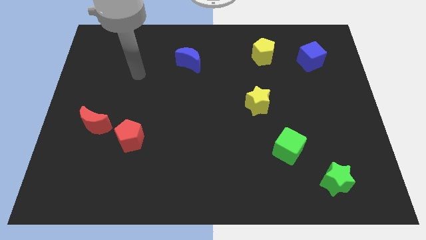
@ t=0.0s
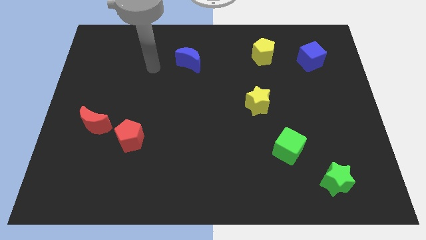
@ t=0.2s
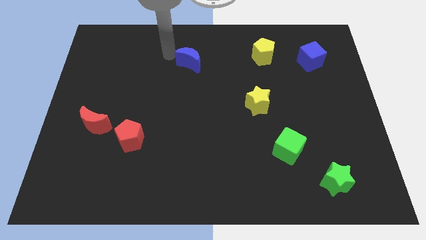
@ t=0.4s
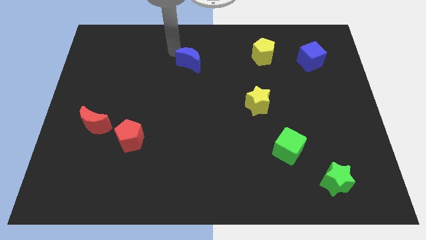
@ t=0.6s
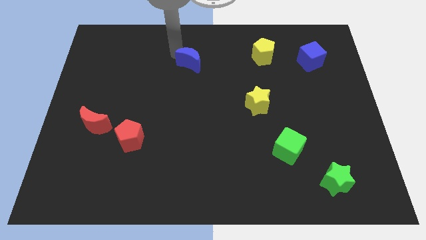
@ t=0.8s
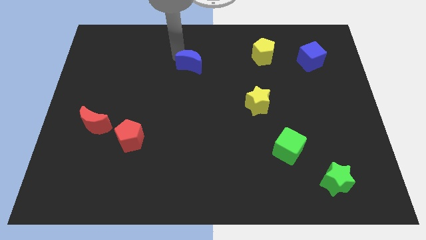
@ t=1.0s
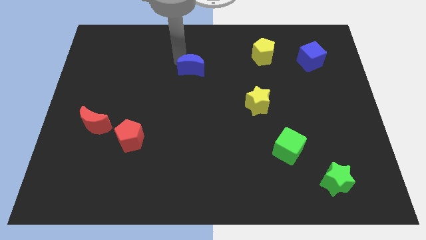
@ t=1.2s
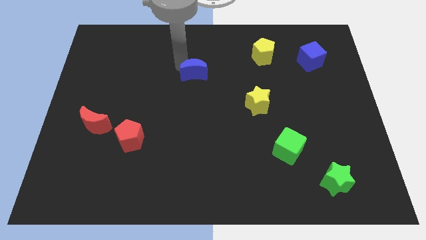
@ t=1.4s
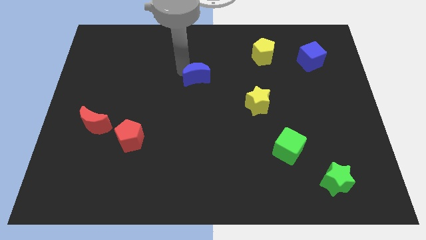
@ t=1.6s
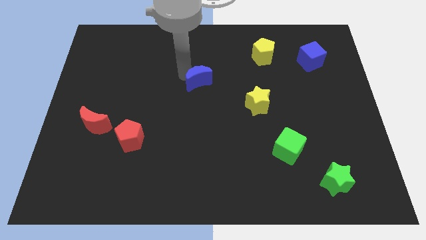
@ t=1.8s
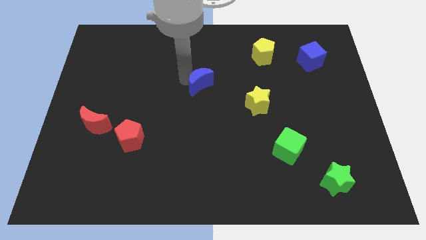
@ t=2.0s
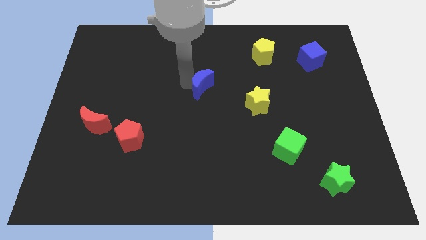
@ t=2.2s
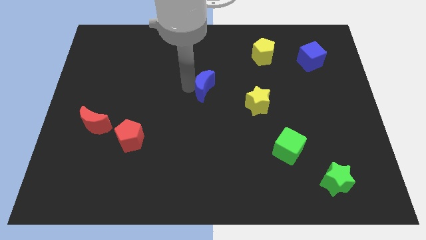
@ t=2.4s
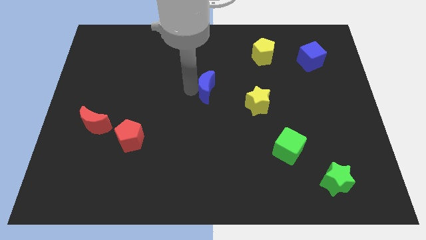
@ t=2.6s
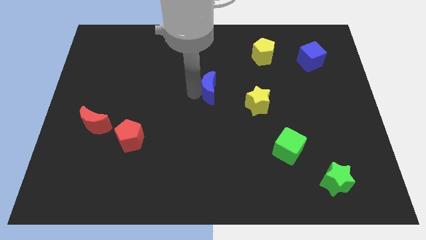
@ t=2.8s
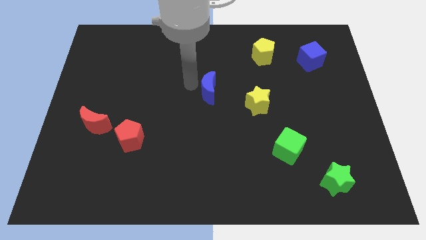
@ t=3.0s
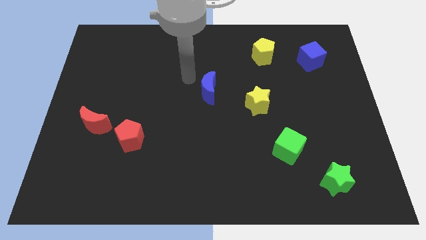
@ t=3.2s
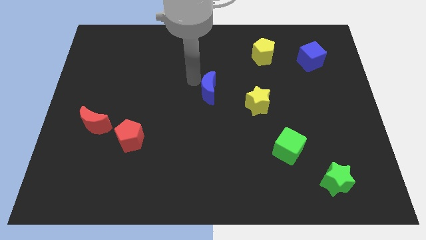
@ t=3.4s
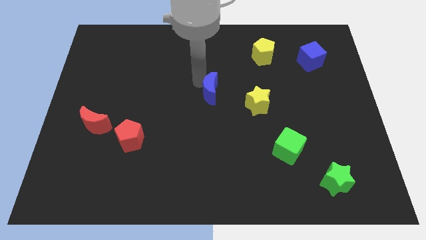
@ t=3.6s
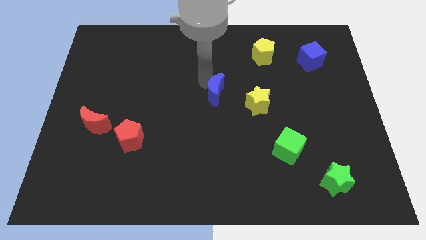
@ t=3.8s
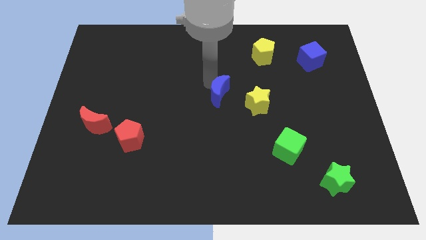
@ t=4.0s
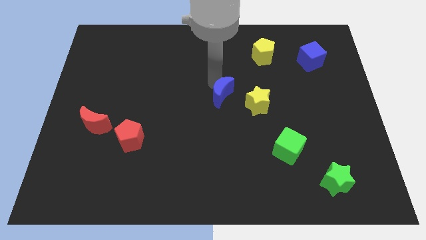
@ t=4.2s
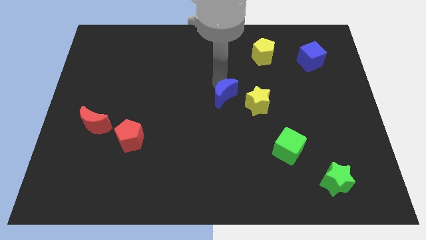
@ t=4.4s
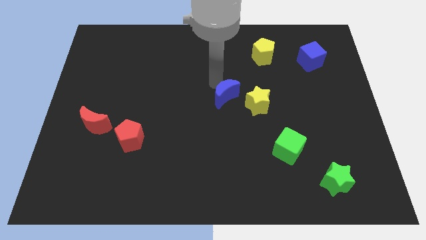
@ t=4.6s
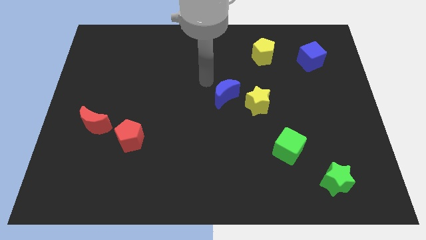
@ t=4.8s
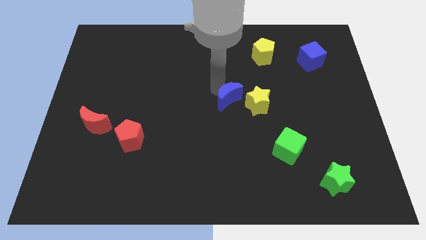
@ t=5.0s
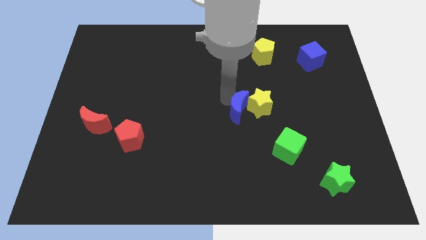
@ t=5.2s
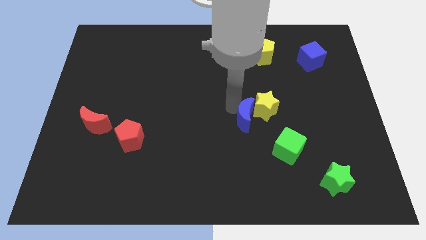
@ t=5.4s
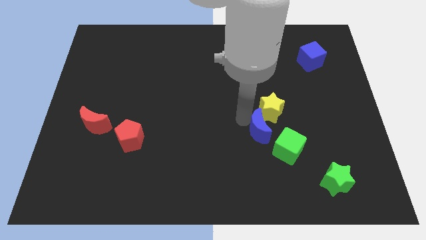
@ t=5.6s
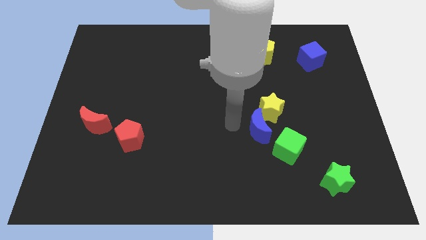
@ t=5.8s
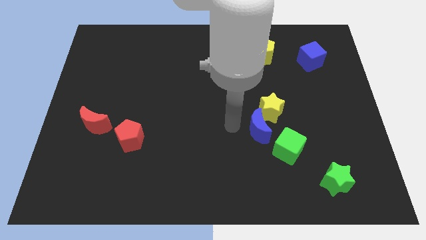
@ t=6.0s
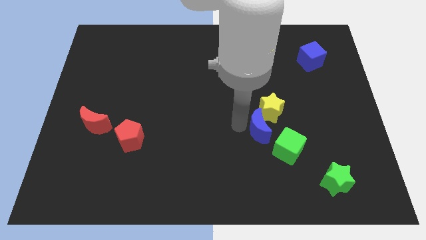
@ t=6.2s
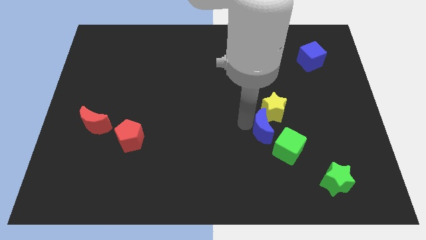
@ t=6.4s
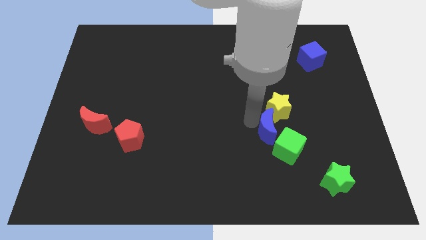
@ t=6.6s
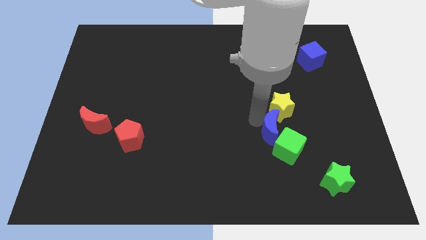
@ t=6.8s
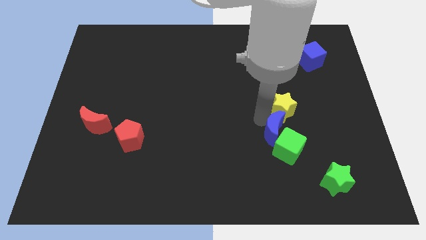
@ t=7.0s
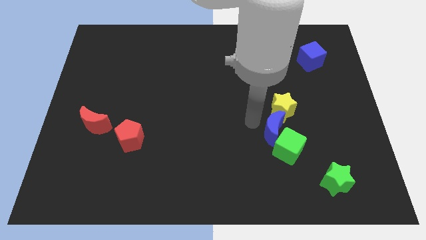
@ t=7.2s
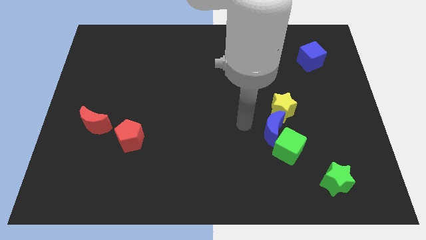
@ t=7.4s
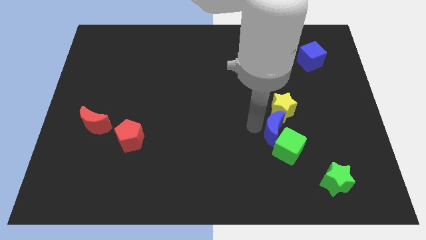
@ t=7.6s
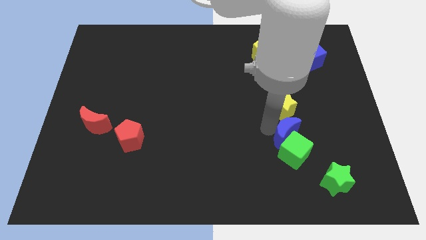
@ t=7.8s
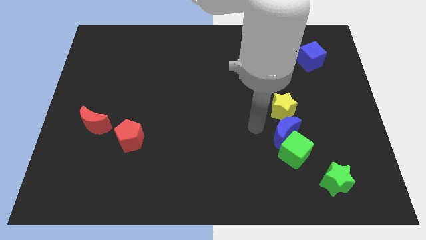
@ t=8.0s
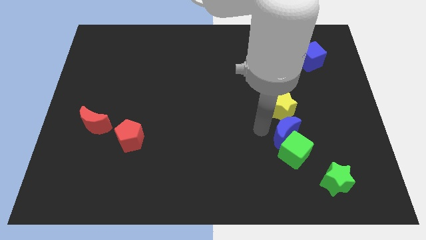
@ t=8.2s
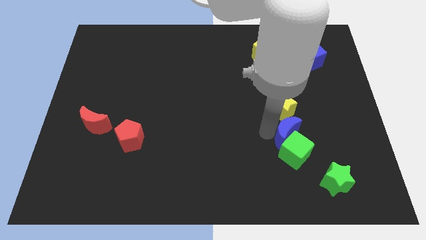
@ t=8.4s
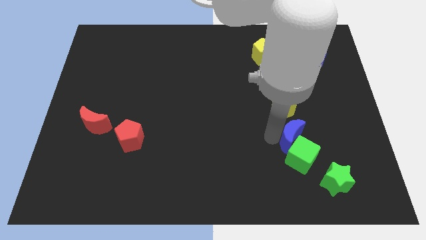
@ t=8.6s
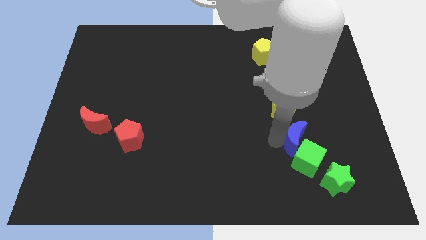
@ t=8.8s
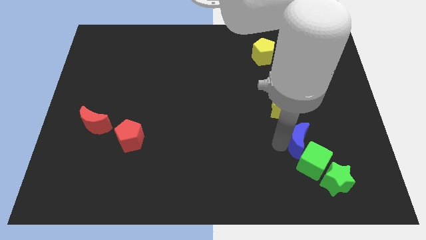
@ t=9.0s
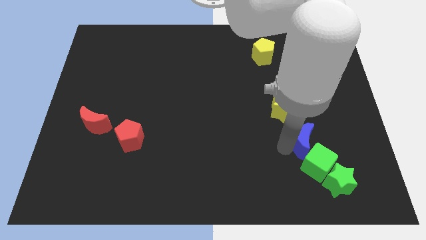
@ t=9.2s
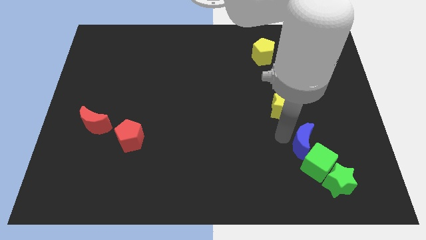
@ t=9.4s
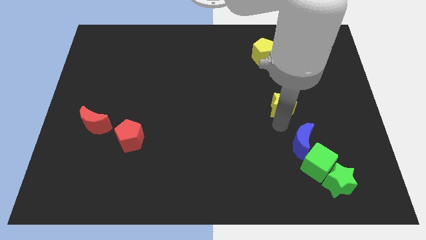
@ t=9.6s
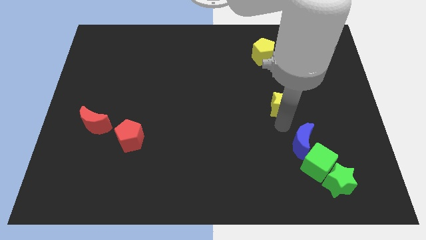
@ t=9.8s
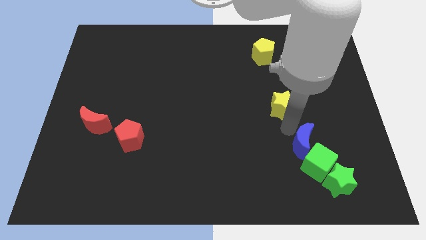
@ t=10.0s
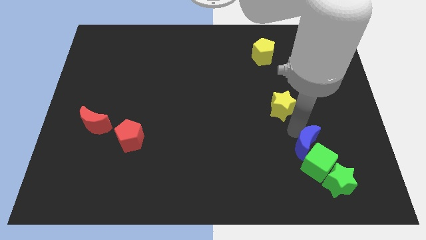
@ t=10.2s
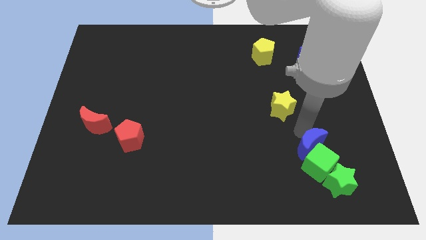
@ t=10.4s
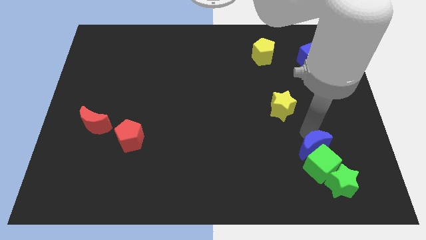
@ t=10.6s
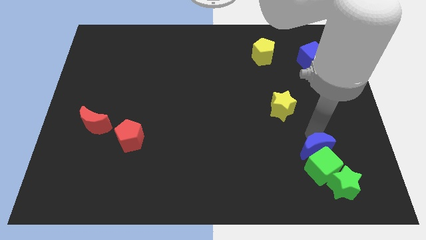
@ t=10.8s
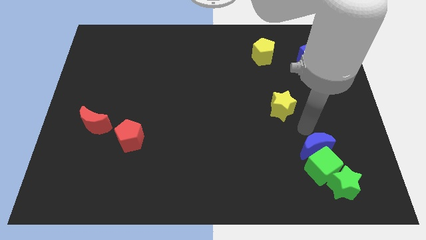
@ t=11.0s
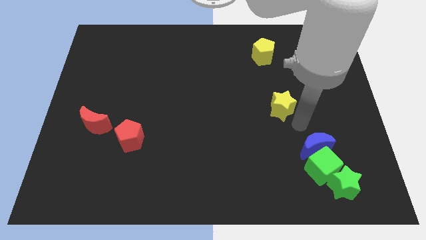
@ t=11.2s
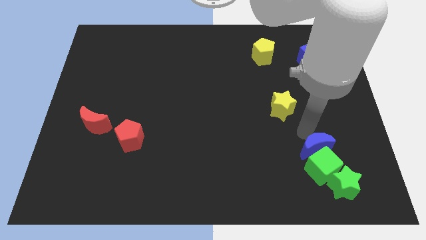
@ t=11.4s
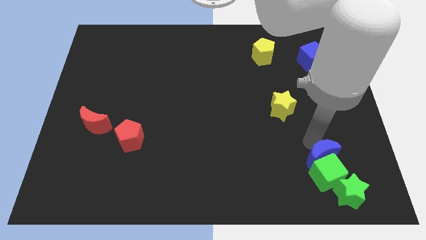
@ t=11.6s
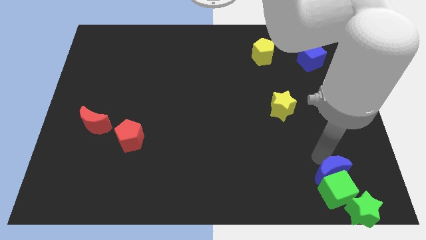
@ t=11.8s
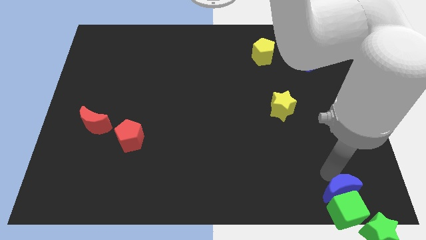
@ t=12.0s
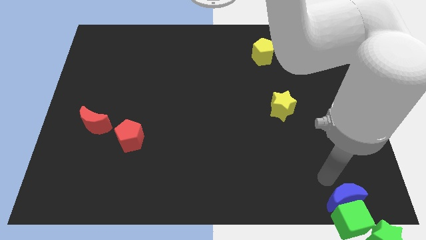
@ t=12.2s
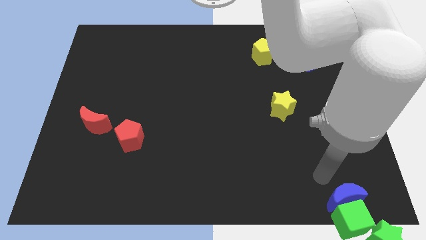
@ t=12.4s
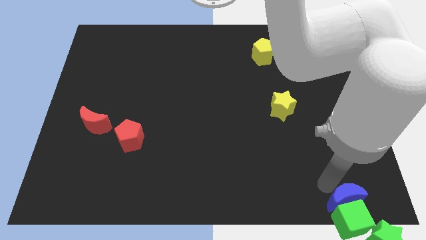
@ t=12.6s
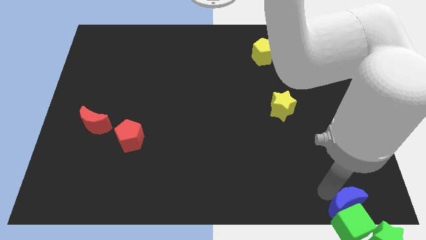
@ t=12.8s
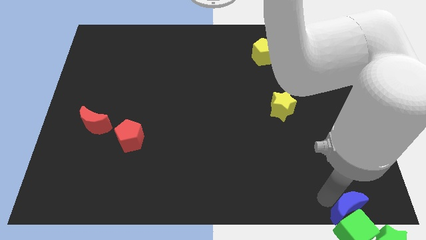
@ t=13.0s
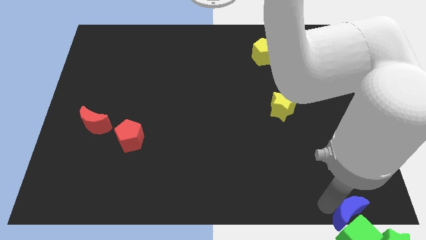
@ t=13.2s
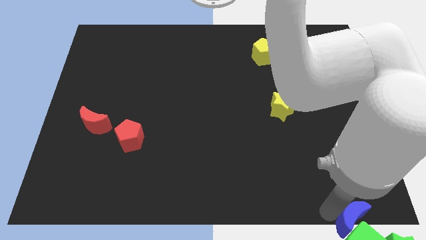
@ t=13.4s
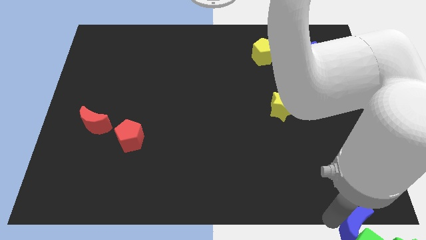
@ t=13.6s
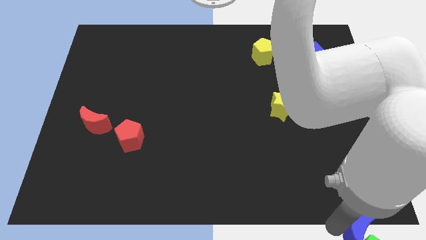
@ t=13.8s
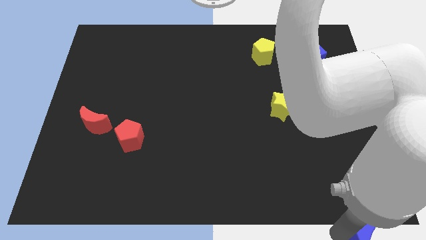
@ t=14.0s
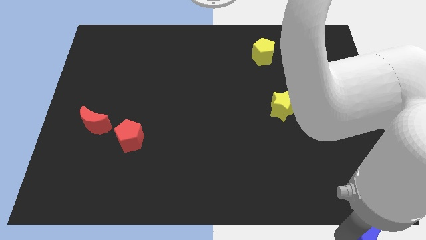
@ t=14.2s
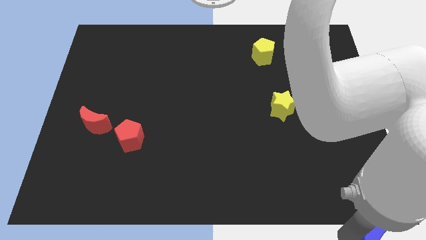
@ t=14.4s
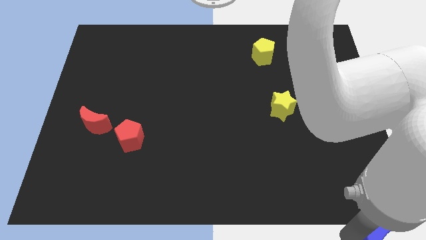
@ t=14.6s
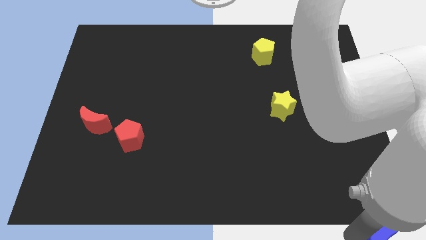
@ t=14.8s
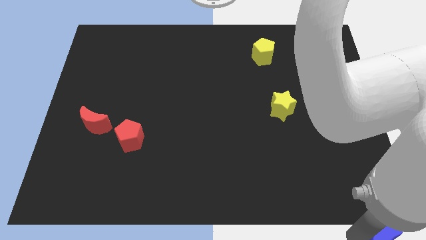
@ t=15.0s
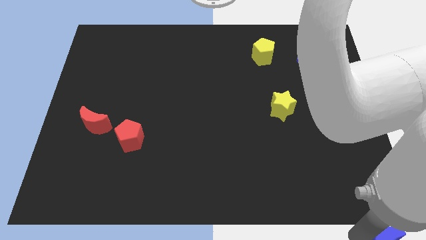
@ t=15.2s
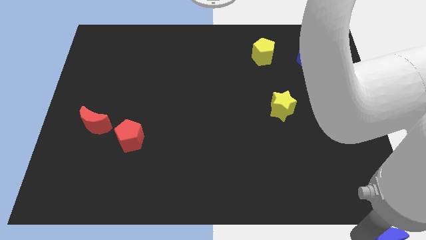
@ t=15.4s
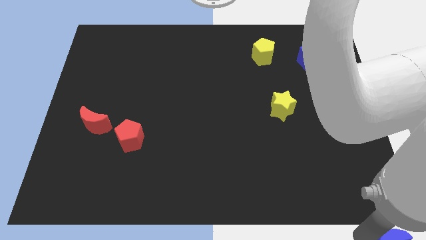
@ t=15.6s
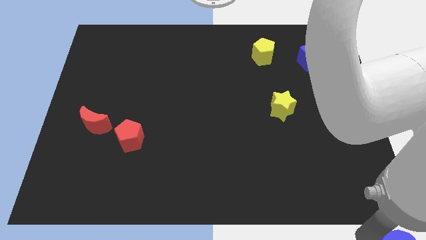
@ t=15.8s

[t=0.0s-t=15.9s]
push the blue moon close to the green star
